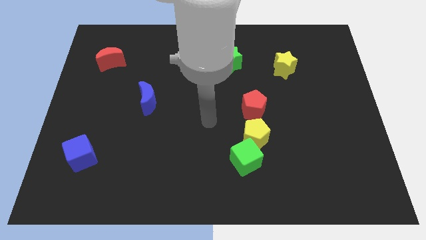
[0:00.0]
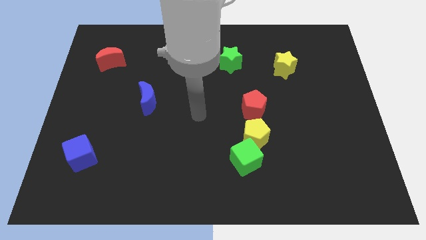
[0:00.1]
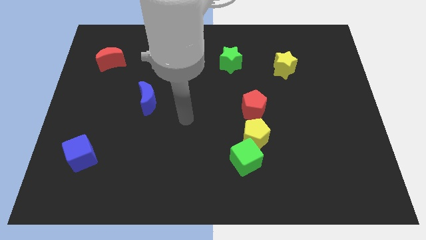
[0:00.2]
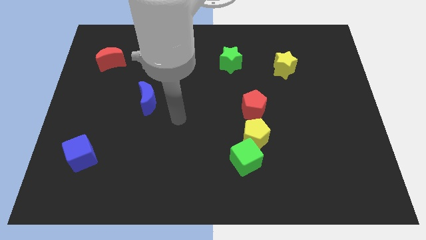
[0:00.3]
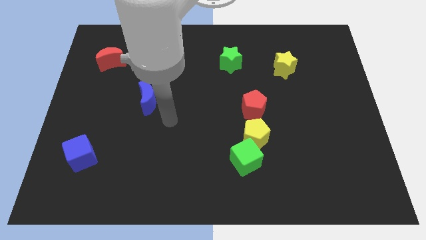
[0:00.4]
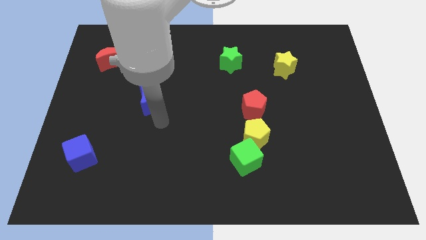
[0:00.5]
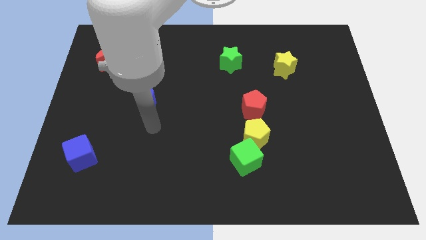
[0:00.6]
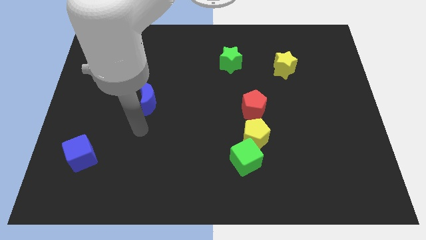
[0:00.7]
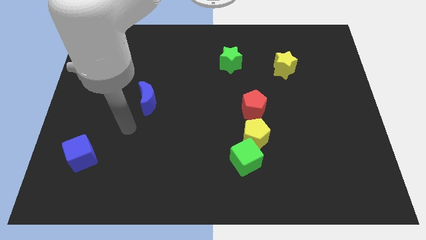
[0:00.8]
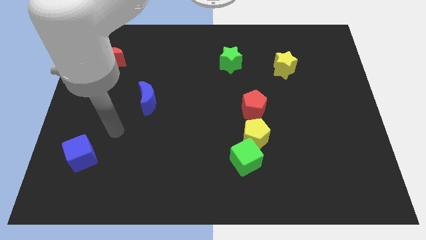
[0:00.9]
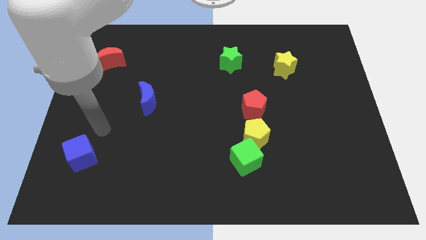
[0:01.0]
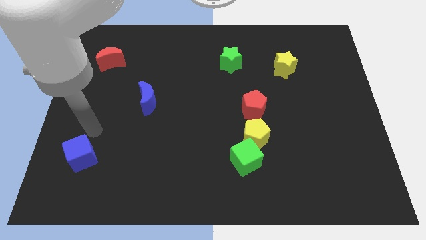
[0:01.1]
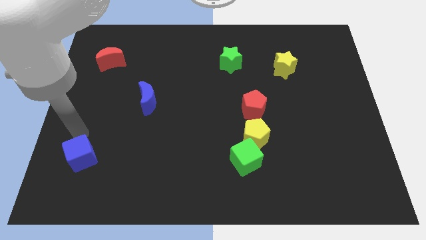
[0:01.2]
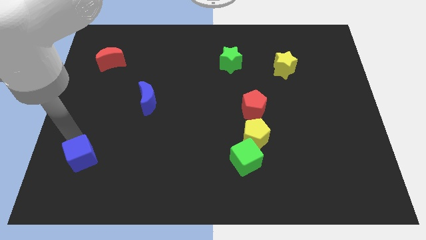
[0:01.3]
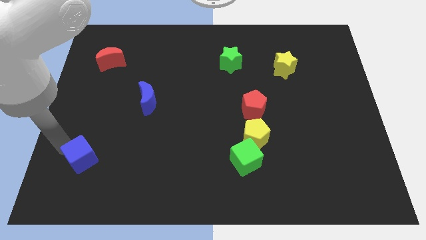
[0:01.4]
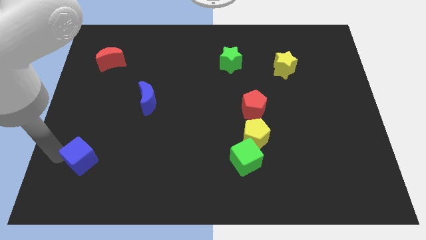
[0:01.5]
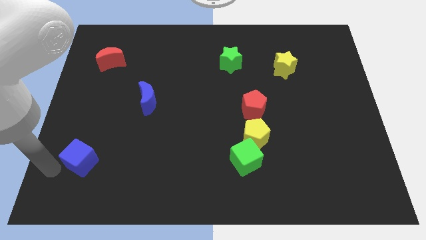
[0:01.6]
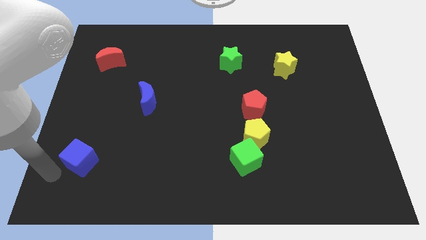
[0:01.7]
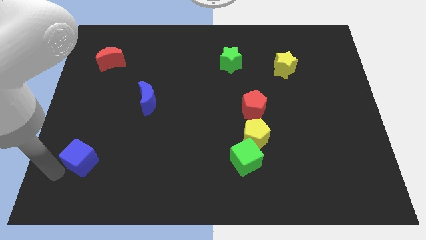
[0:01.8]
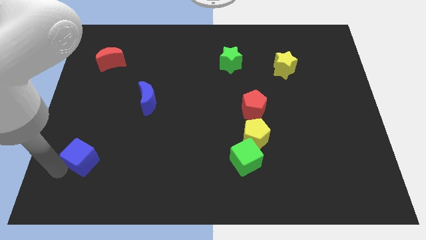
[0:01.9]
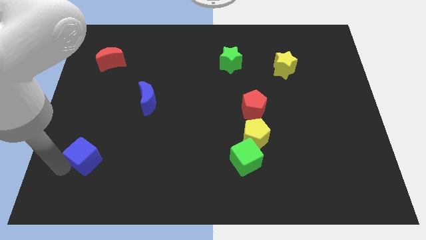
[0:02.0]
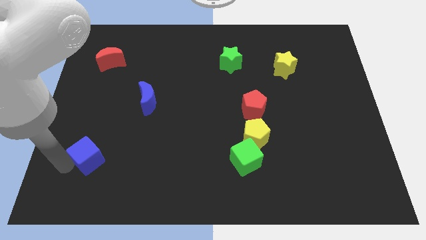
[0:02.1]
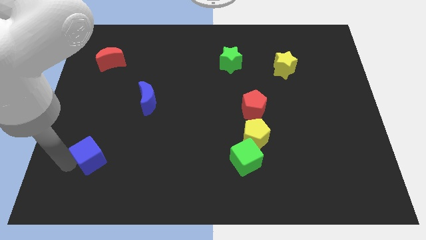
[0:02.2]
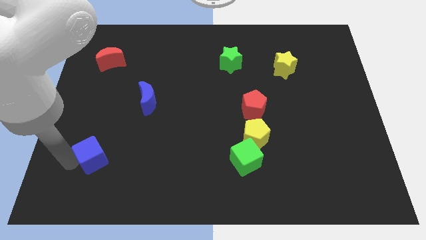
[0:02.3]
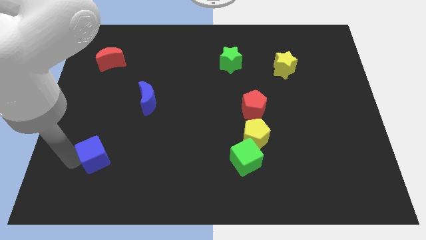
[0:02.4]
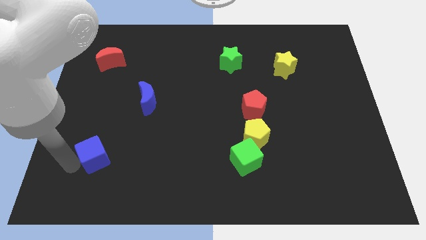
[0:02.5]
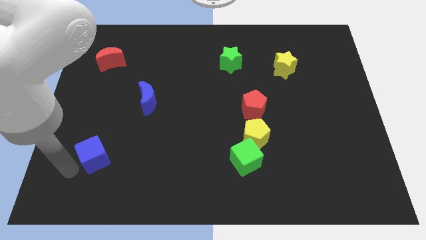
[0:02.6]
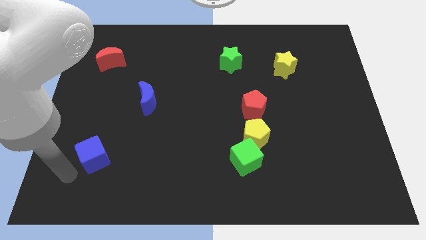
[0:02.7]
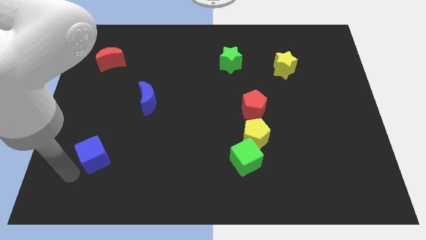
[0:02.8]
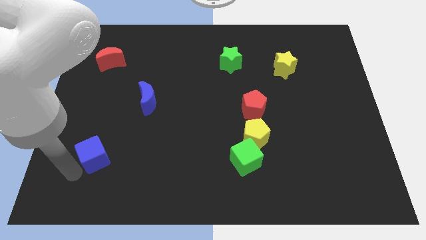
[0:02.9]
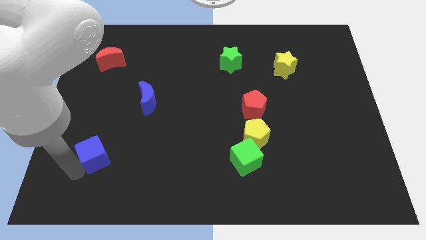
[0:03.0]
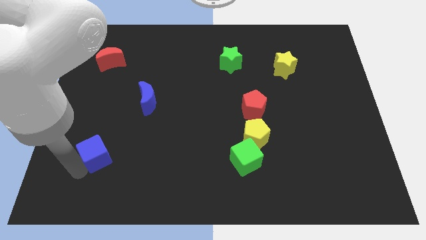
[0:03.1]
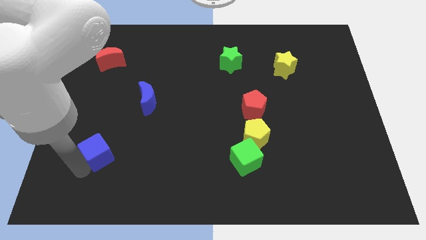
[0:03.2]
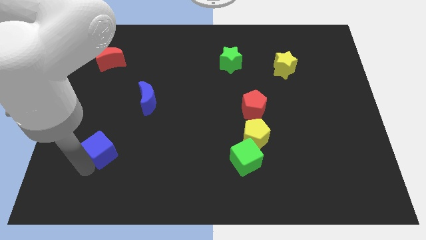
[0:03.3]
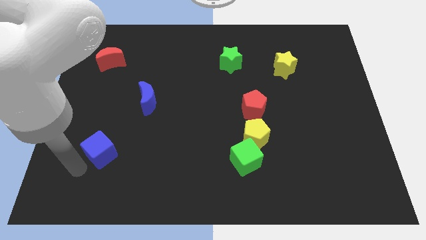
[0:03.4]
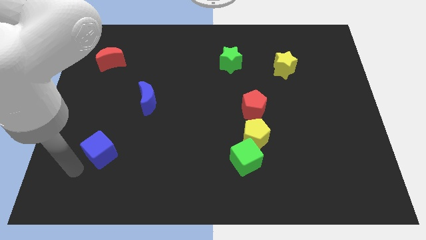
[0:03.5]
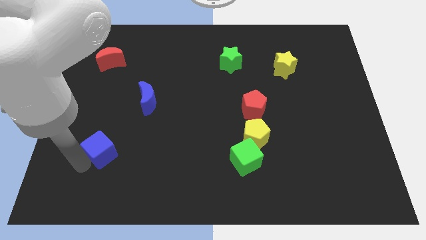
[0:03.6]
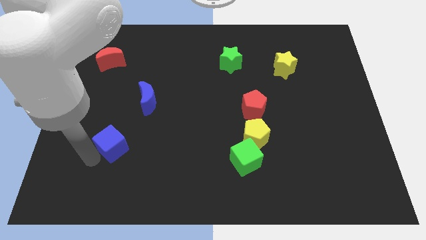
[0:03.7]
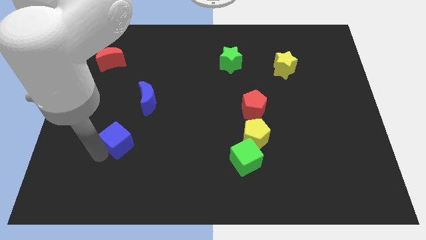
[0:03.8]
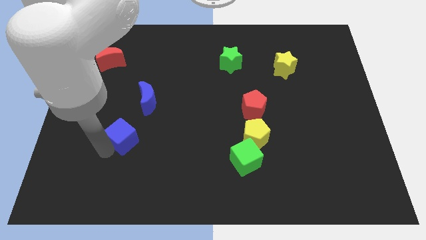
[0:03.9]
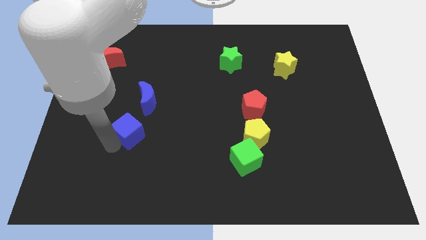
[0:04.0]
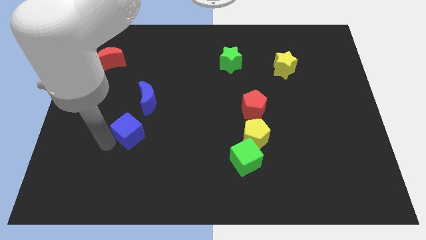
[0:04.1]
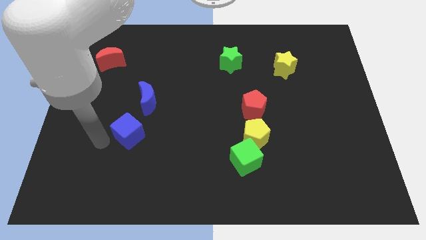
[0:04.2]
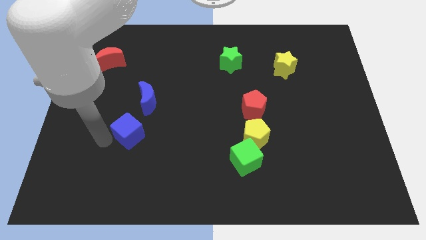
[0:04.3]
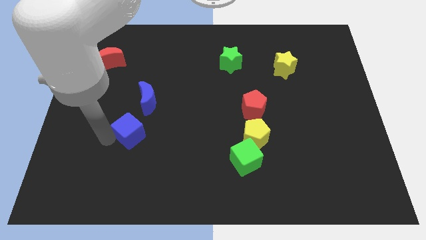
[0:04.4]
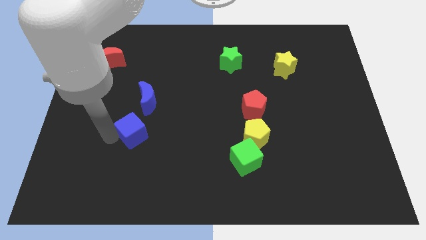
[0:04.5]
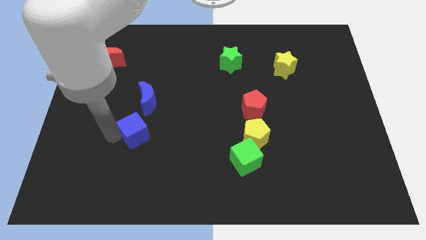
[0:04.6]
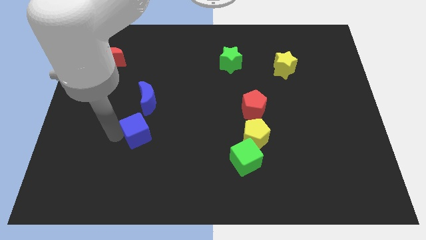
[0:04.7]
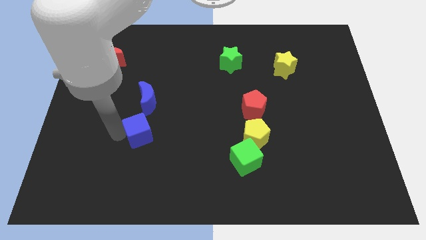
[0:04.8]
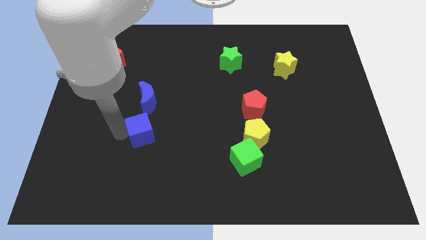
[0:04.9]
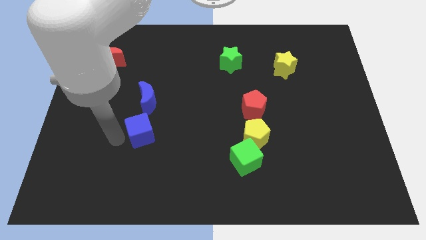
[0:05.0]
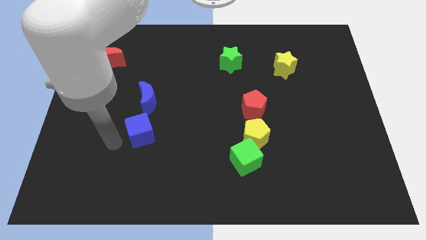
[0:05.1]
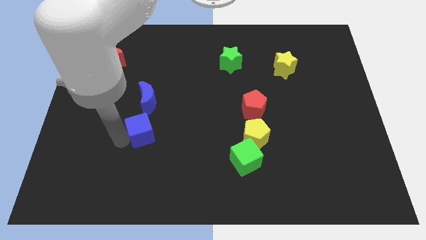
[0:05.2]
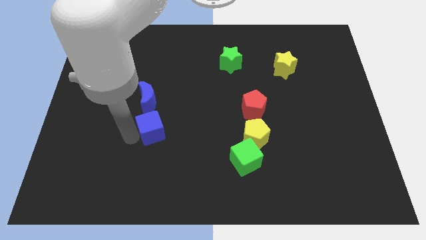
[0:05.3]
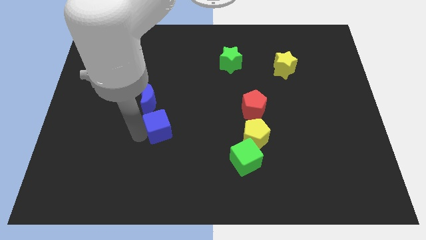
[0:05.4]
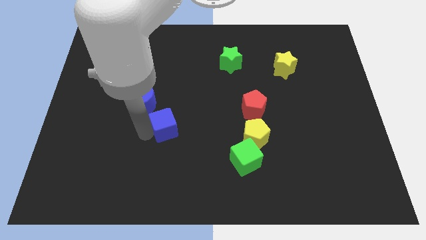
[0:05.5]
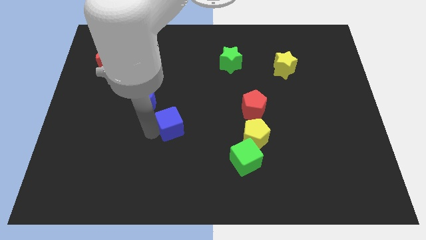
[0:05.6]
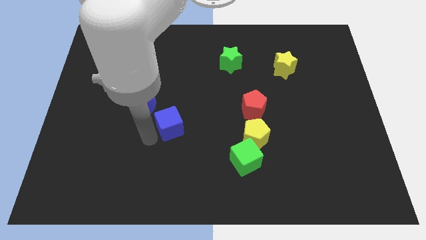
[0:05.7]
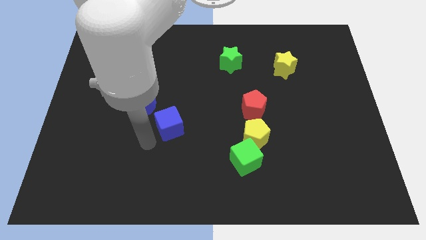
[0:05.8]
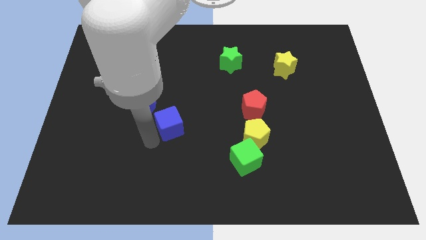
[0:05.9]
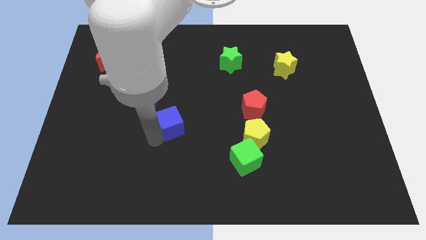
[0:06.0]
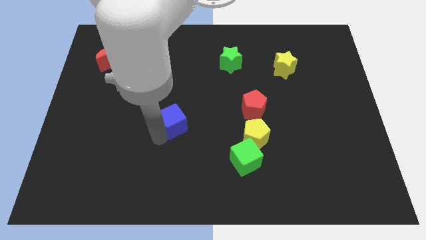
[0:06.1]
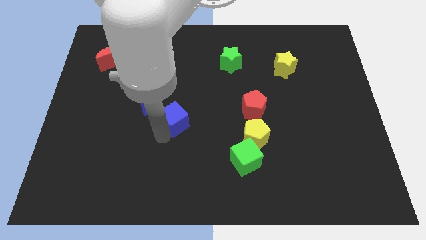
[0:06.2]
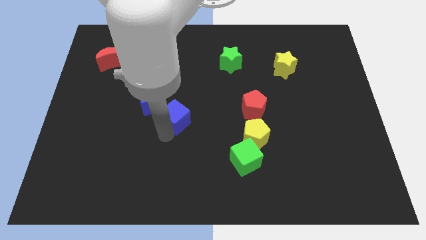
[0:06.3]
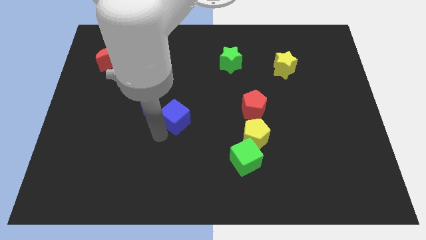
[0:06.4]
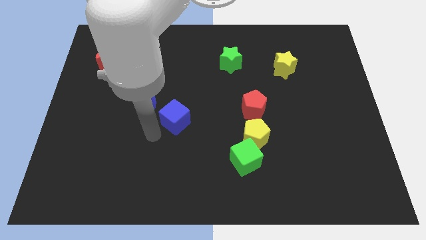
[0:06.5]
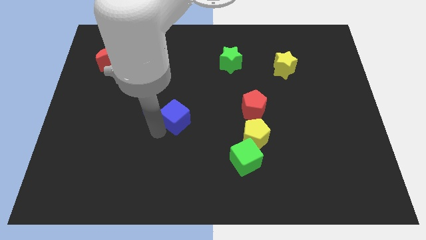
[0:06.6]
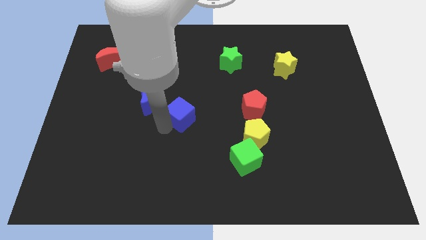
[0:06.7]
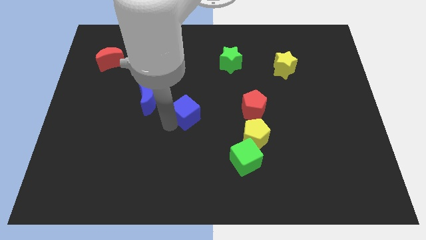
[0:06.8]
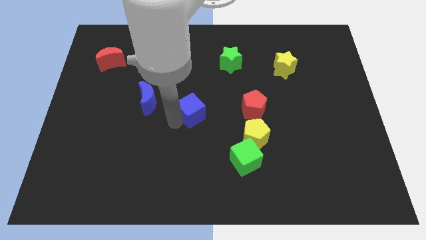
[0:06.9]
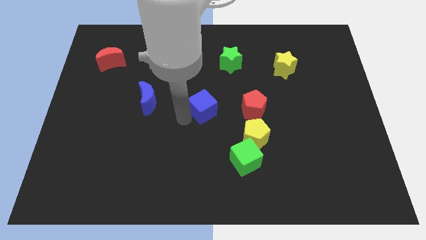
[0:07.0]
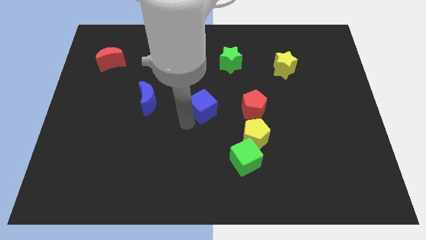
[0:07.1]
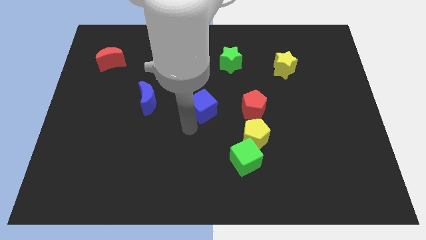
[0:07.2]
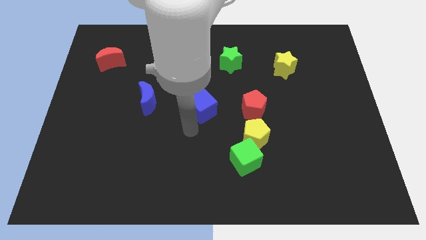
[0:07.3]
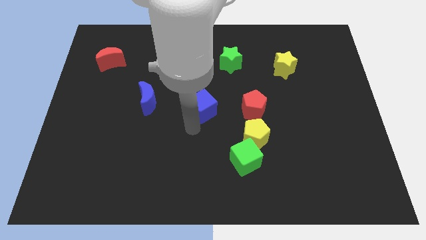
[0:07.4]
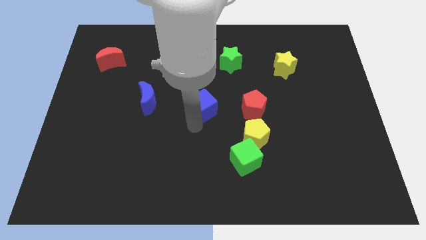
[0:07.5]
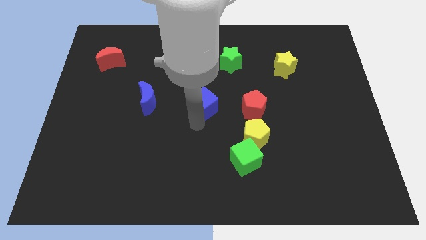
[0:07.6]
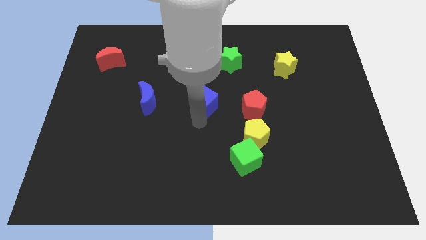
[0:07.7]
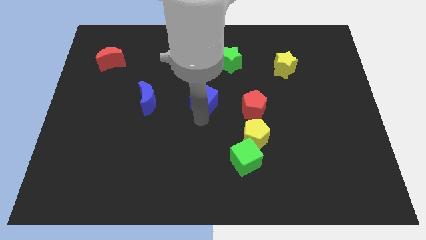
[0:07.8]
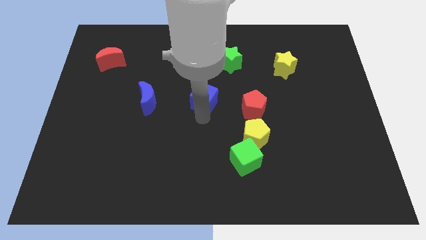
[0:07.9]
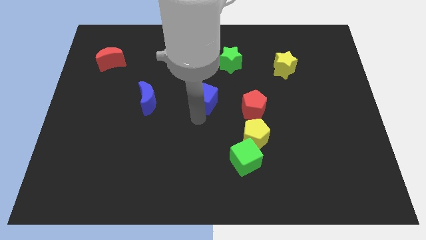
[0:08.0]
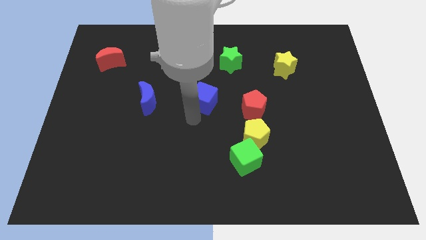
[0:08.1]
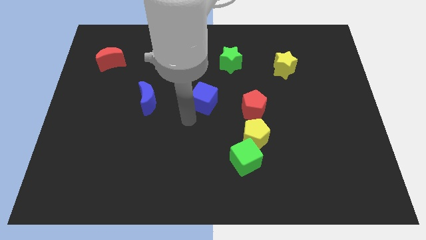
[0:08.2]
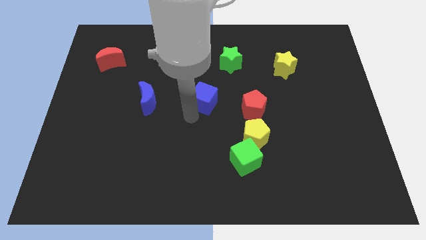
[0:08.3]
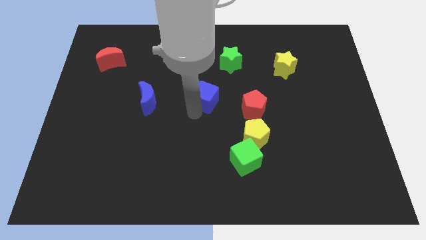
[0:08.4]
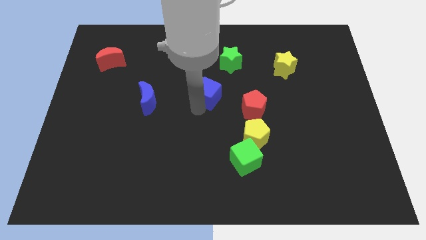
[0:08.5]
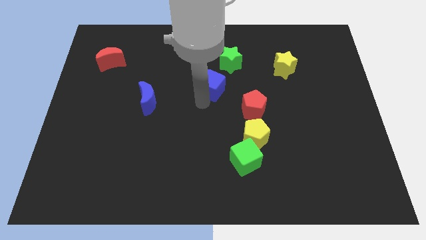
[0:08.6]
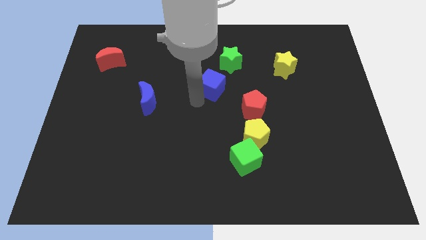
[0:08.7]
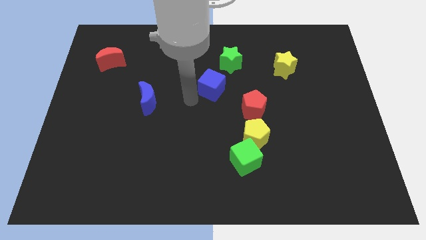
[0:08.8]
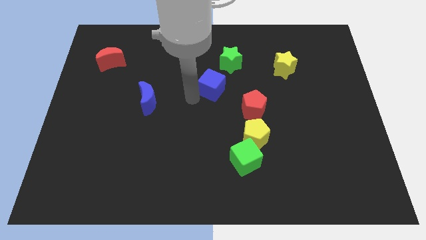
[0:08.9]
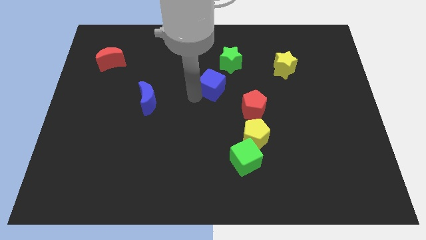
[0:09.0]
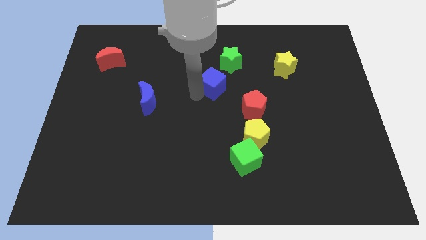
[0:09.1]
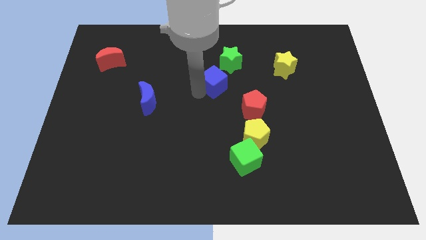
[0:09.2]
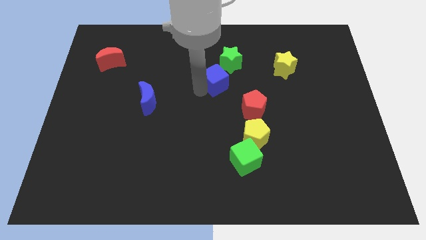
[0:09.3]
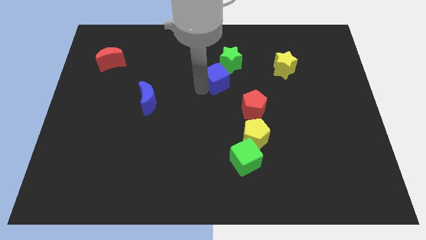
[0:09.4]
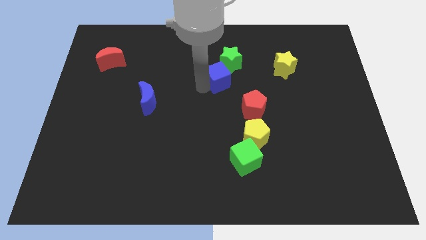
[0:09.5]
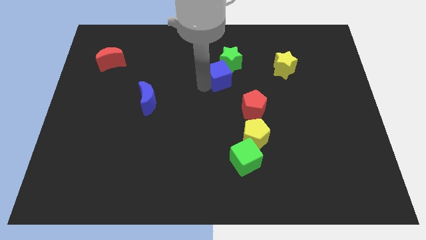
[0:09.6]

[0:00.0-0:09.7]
push the blue cube towards the green star
